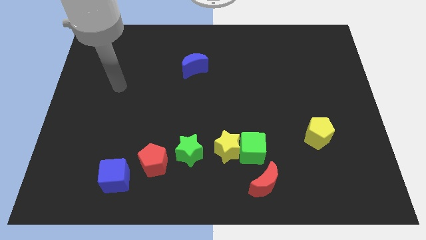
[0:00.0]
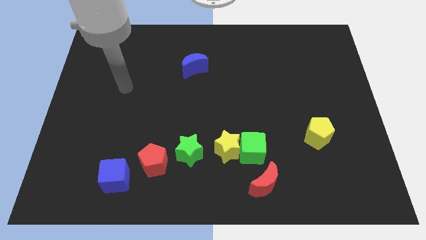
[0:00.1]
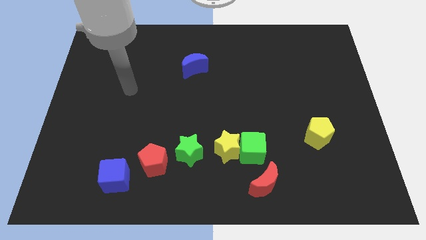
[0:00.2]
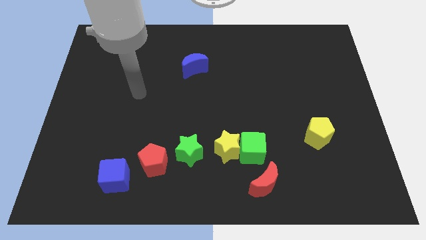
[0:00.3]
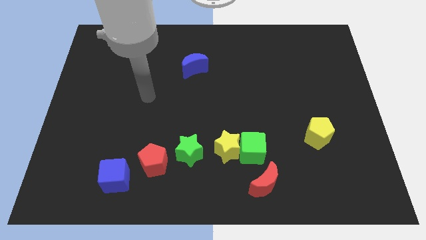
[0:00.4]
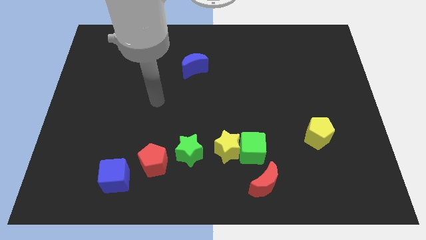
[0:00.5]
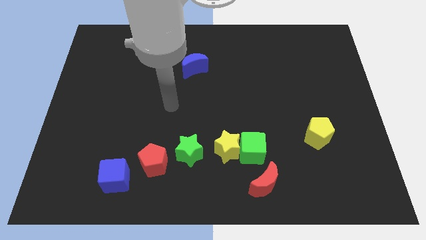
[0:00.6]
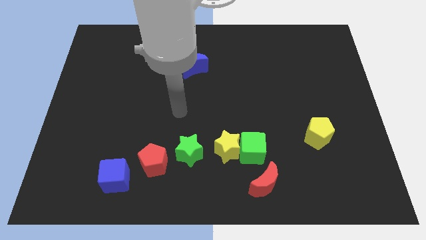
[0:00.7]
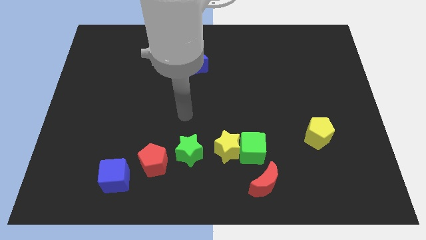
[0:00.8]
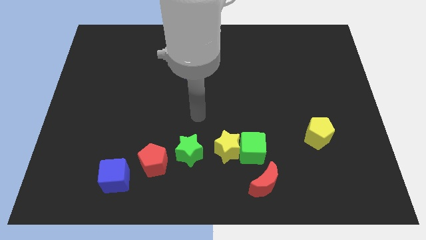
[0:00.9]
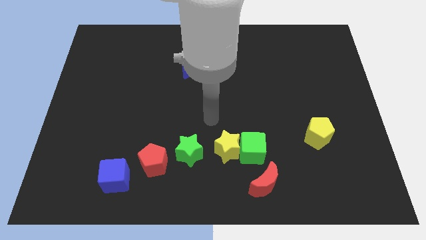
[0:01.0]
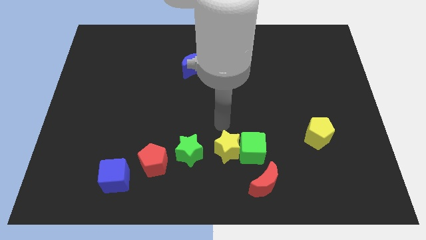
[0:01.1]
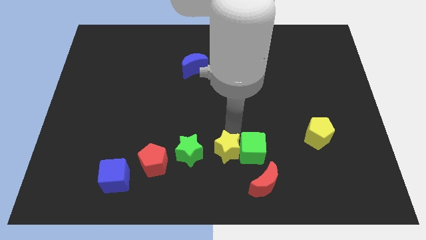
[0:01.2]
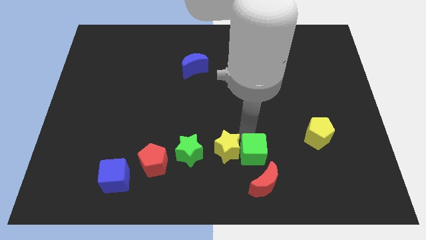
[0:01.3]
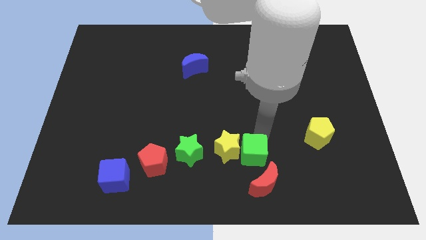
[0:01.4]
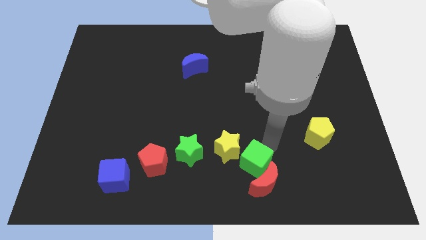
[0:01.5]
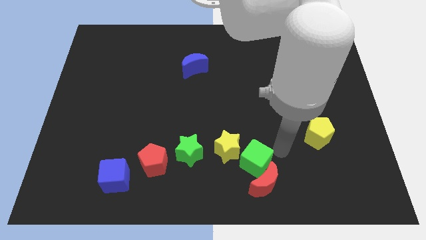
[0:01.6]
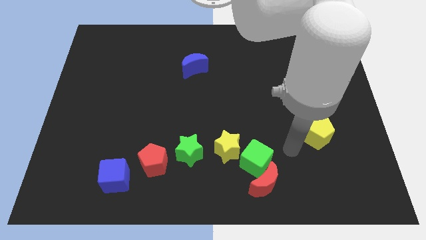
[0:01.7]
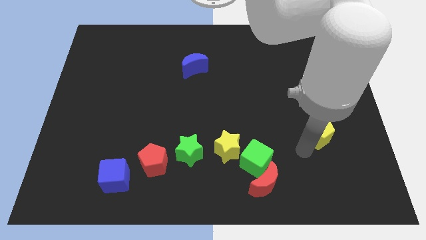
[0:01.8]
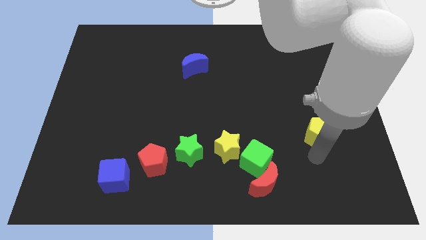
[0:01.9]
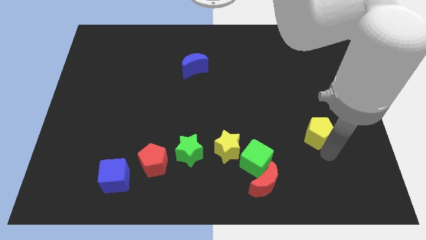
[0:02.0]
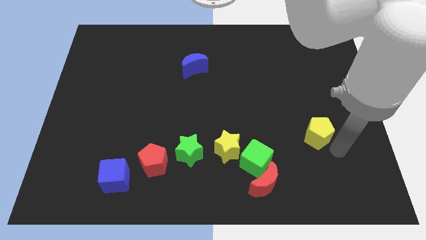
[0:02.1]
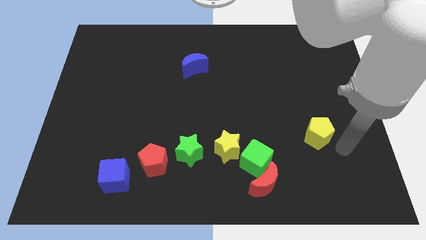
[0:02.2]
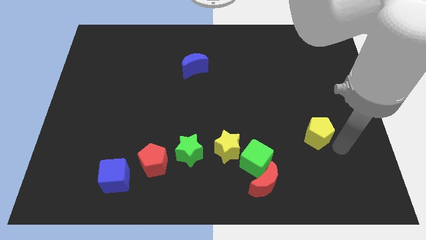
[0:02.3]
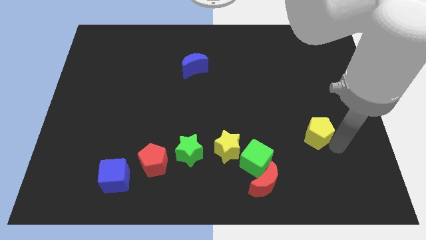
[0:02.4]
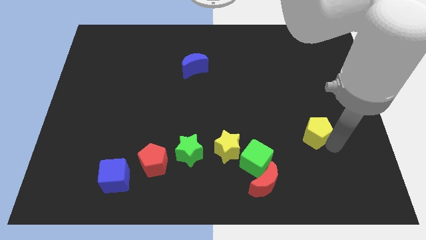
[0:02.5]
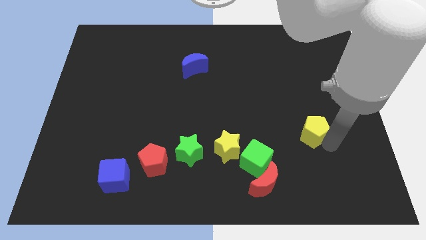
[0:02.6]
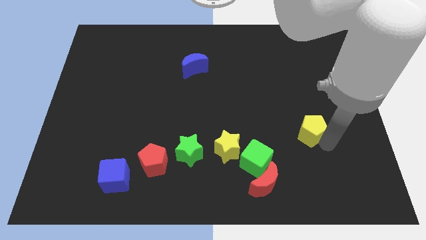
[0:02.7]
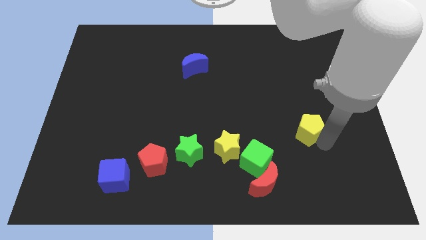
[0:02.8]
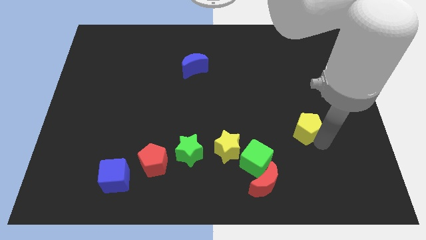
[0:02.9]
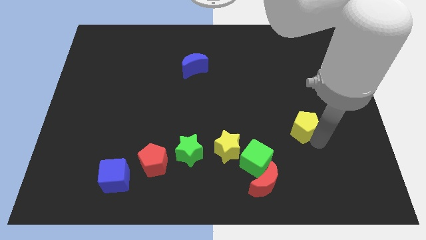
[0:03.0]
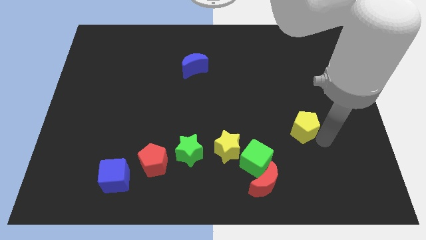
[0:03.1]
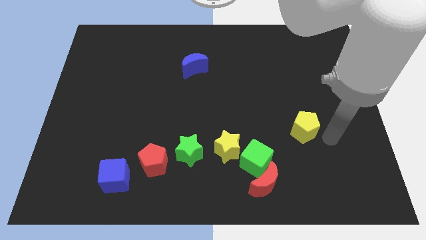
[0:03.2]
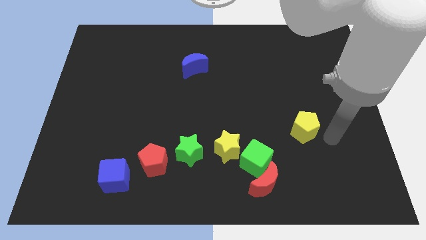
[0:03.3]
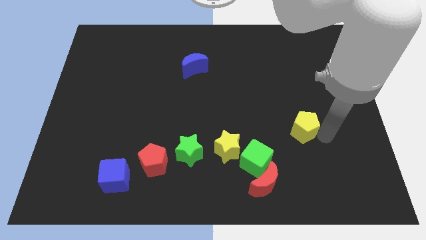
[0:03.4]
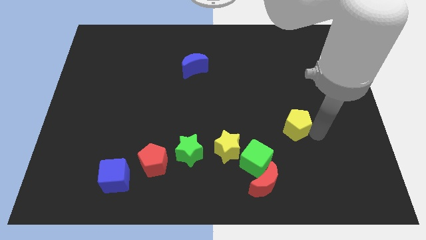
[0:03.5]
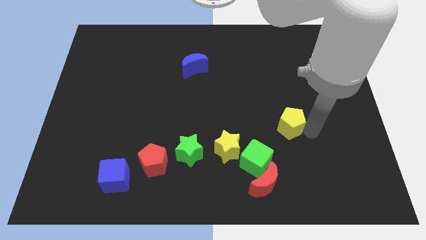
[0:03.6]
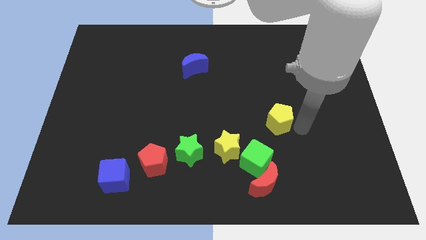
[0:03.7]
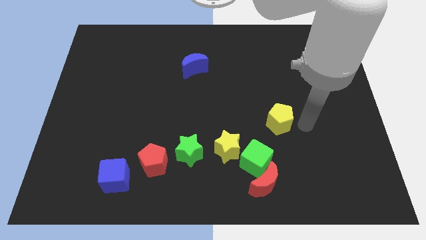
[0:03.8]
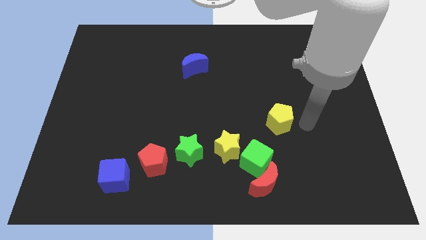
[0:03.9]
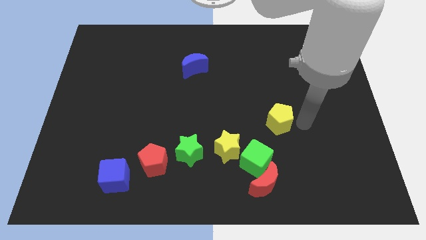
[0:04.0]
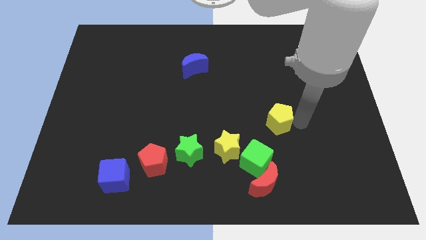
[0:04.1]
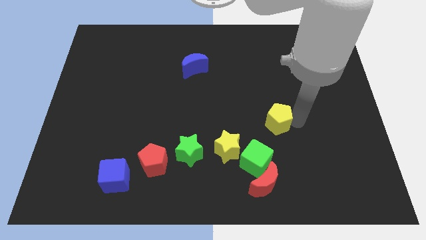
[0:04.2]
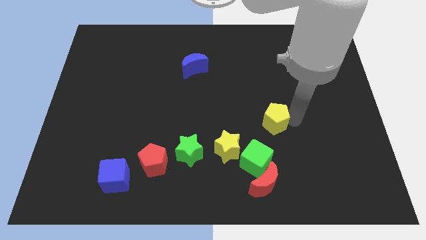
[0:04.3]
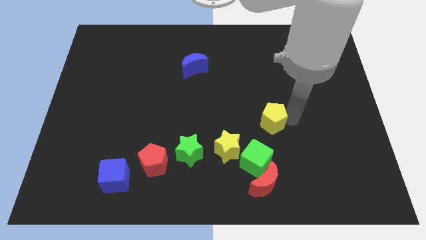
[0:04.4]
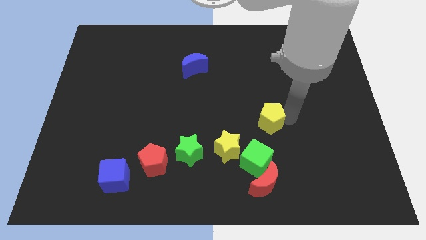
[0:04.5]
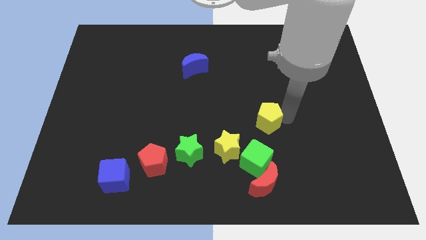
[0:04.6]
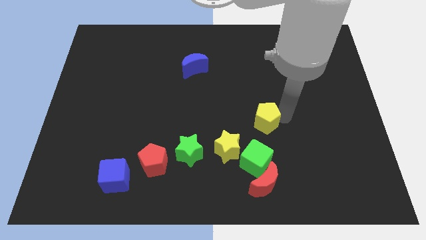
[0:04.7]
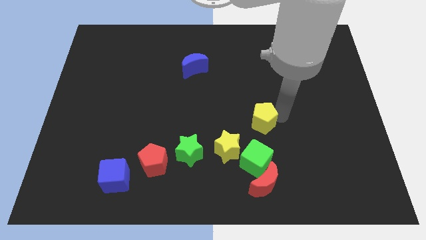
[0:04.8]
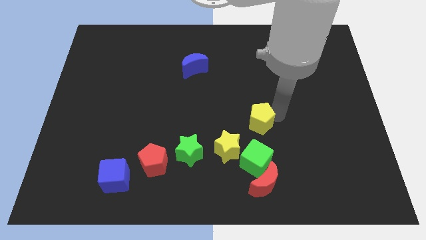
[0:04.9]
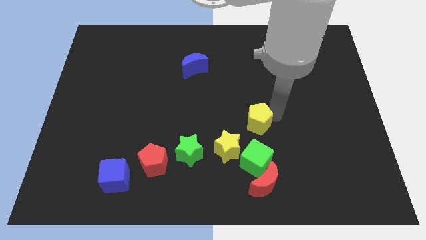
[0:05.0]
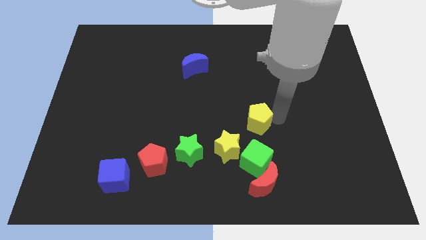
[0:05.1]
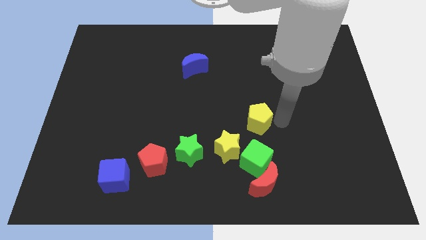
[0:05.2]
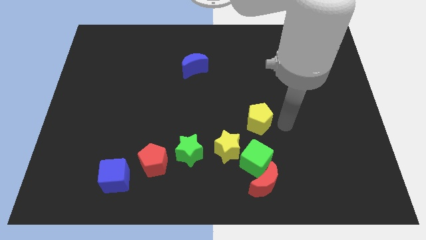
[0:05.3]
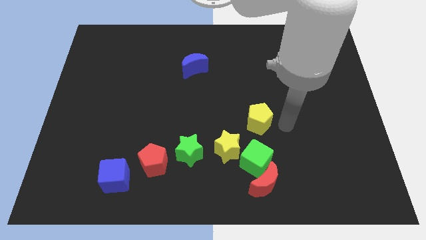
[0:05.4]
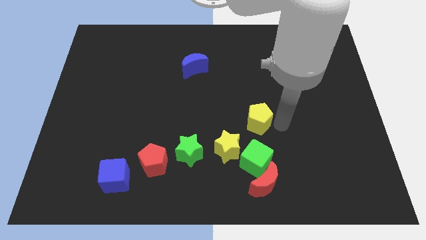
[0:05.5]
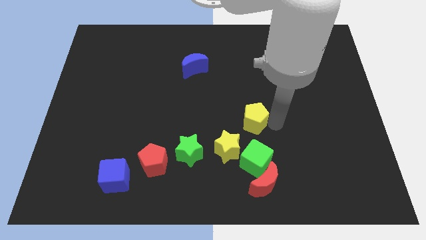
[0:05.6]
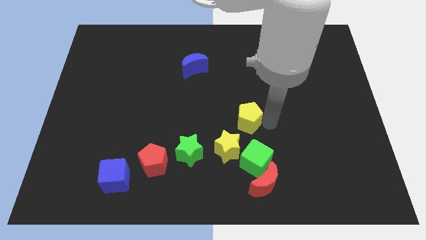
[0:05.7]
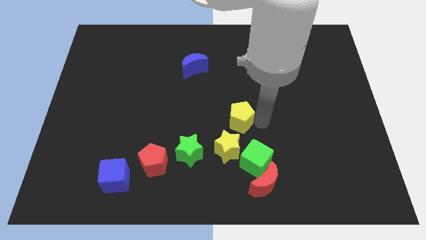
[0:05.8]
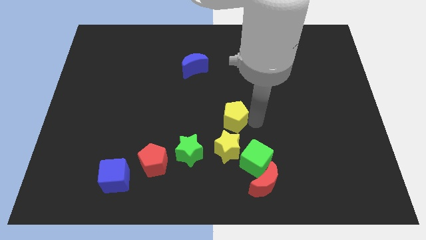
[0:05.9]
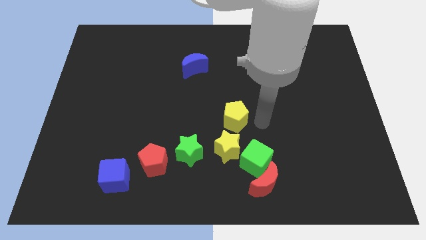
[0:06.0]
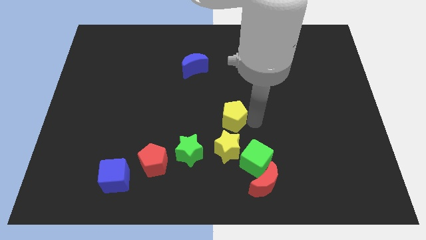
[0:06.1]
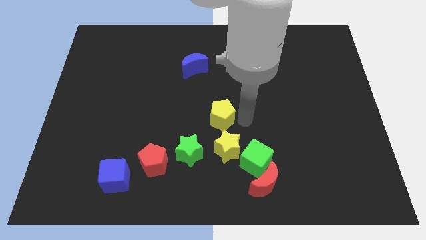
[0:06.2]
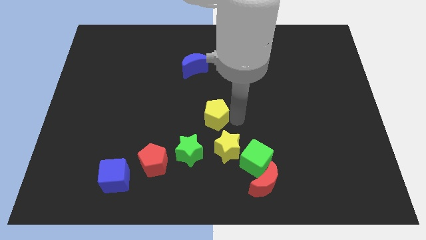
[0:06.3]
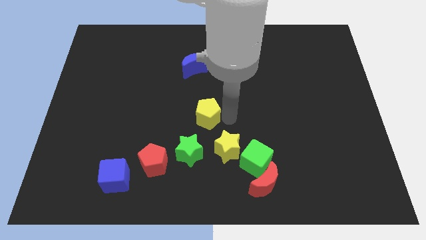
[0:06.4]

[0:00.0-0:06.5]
put the yellow pentagon to the top of the green star

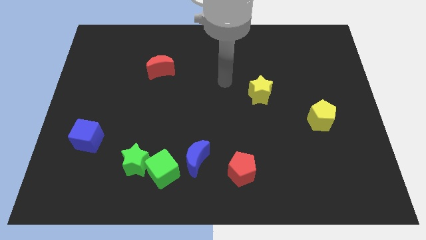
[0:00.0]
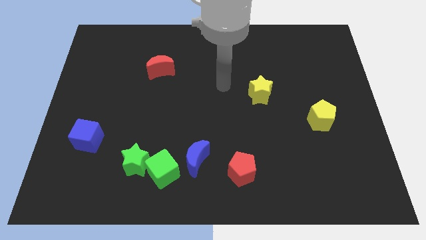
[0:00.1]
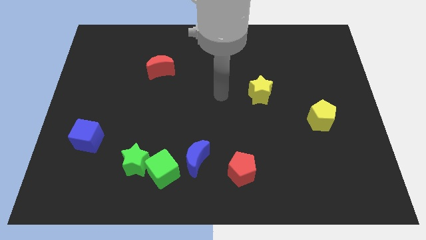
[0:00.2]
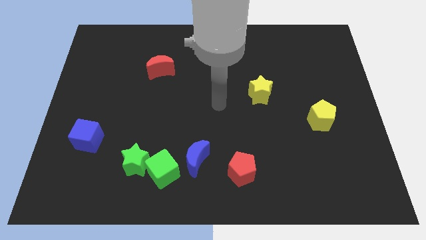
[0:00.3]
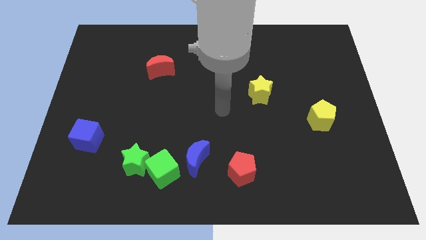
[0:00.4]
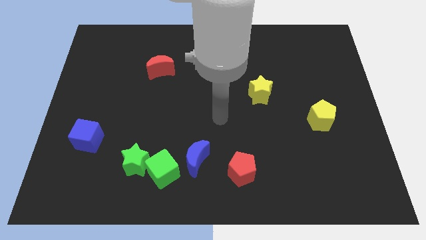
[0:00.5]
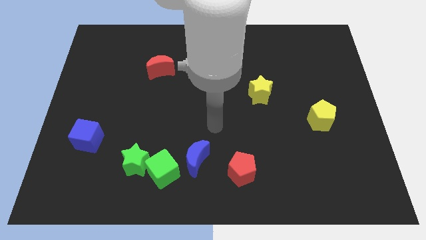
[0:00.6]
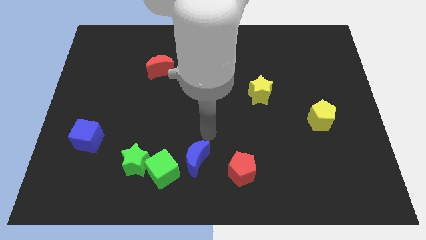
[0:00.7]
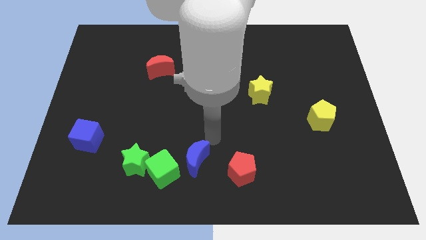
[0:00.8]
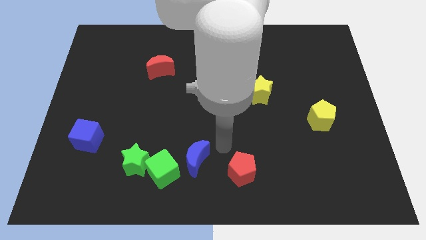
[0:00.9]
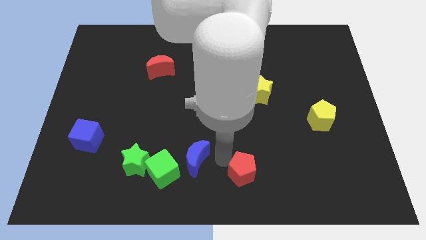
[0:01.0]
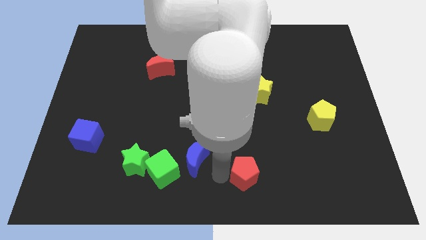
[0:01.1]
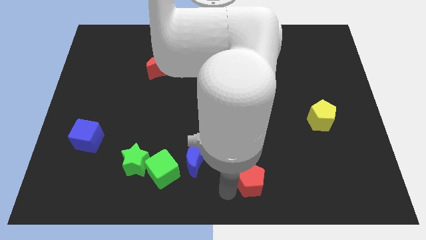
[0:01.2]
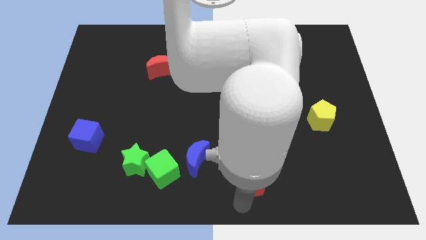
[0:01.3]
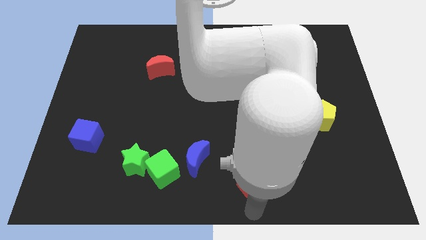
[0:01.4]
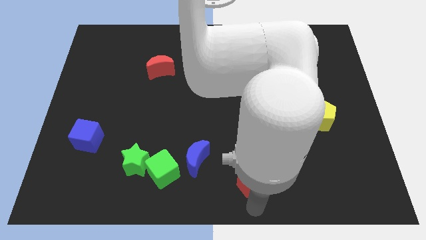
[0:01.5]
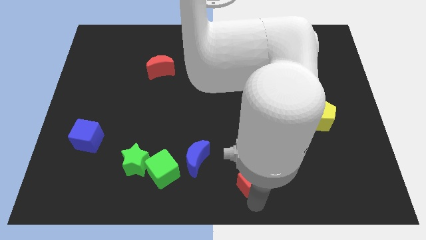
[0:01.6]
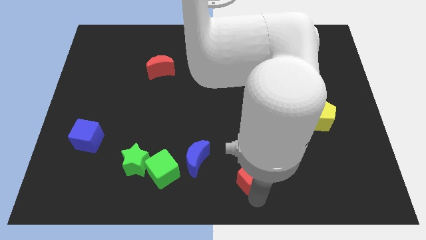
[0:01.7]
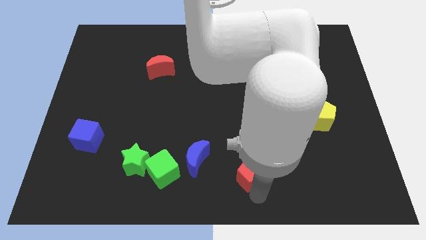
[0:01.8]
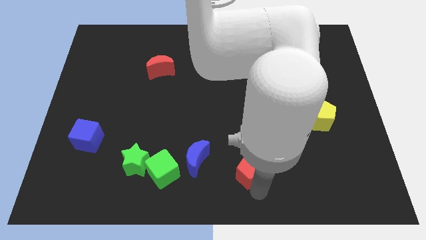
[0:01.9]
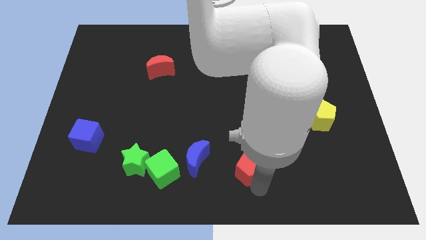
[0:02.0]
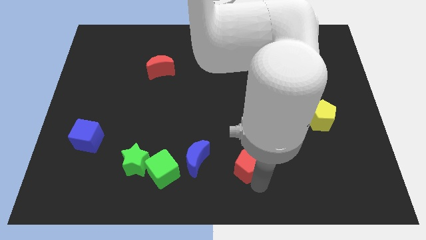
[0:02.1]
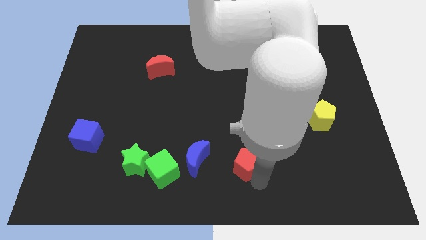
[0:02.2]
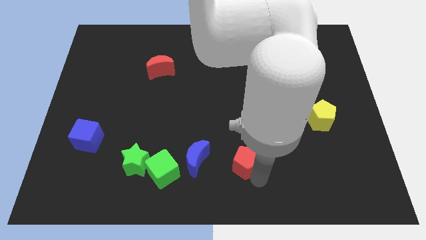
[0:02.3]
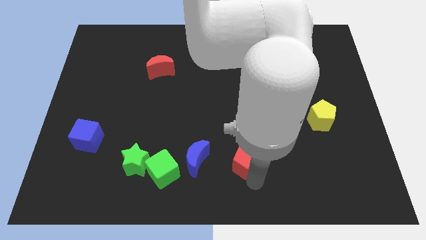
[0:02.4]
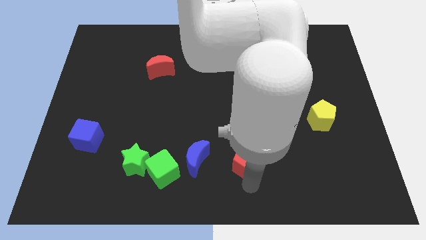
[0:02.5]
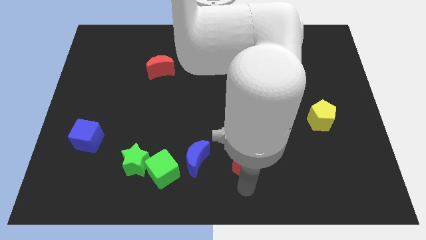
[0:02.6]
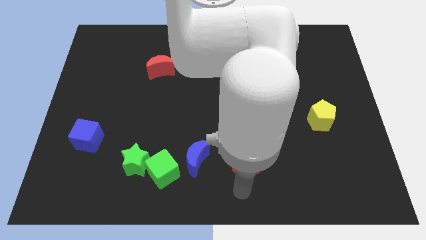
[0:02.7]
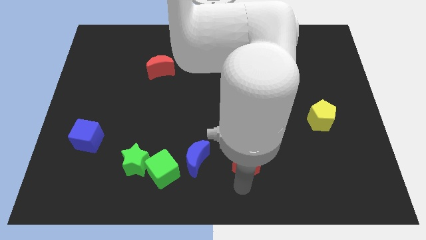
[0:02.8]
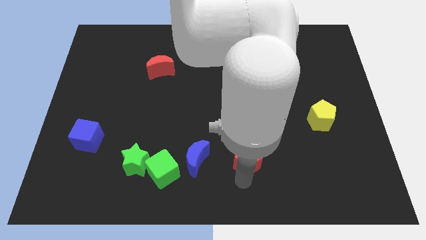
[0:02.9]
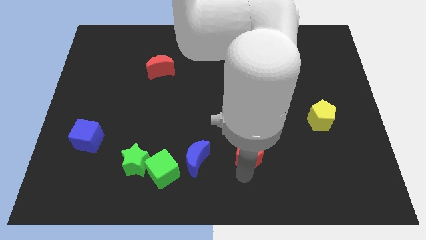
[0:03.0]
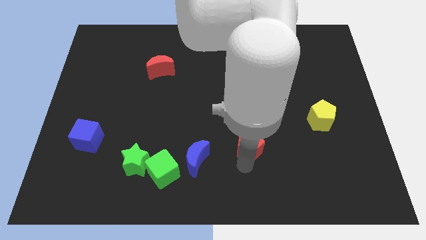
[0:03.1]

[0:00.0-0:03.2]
put the red pentagon to the bottom side of the yellow star
